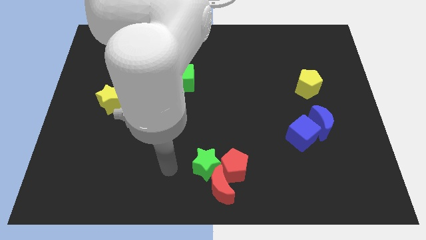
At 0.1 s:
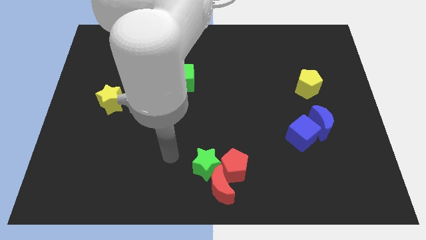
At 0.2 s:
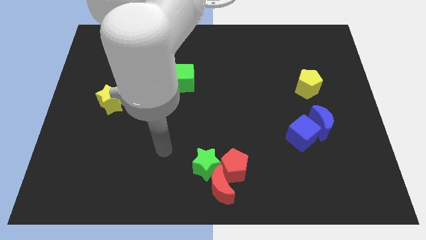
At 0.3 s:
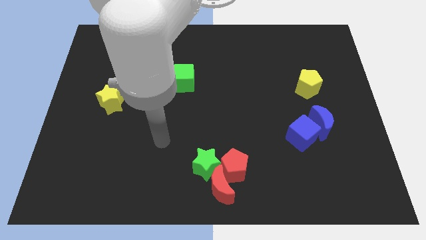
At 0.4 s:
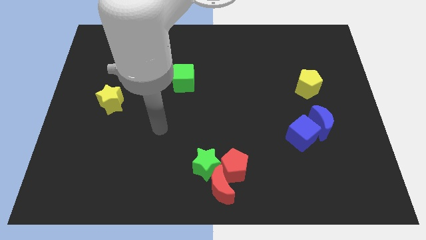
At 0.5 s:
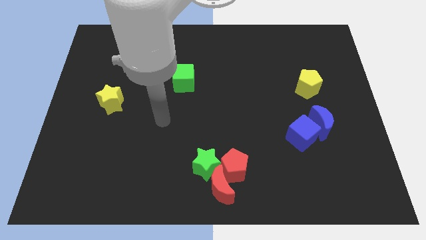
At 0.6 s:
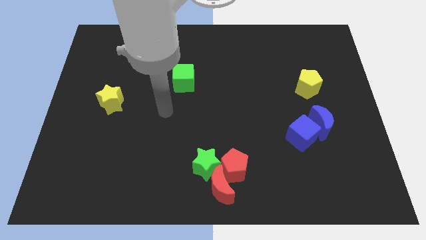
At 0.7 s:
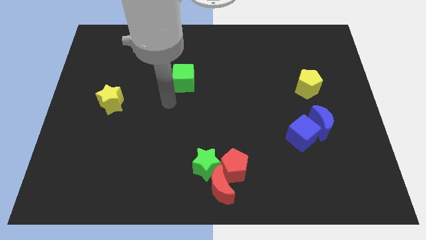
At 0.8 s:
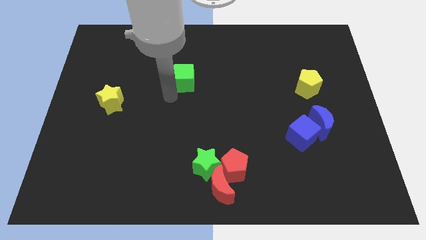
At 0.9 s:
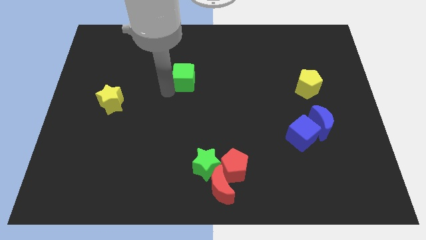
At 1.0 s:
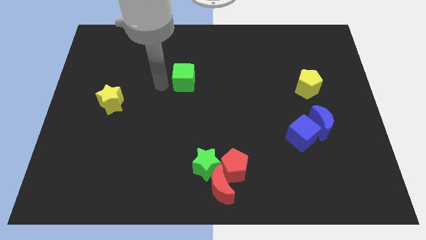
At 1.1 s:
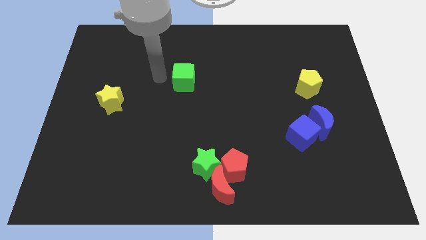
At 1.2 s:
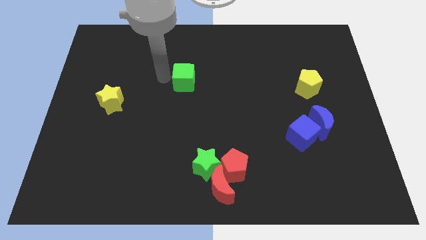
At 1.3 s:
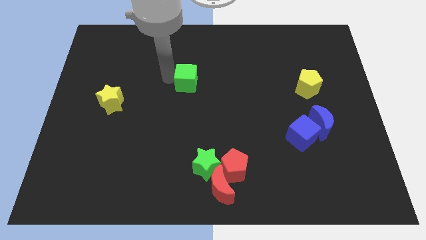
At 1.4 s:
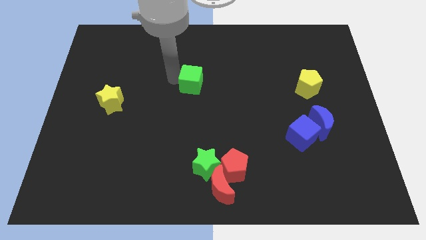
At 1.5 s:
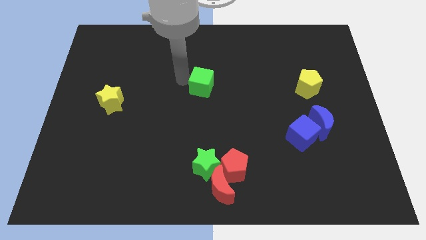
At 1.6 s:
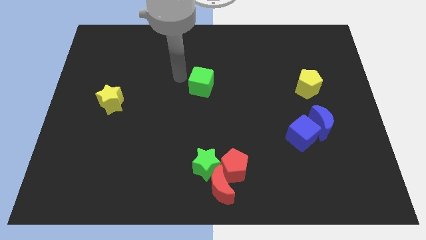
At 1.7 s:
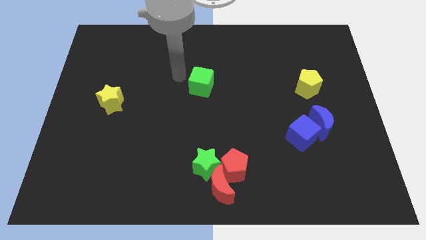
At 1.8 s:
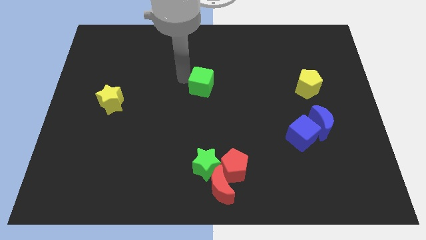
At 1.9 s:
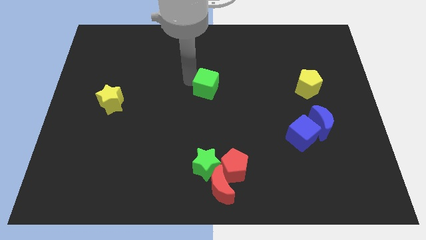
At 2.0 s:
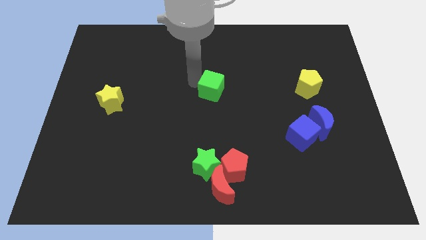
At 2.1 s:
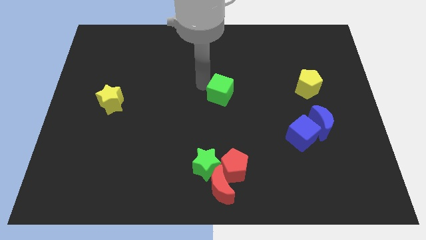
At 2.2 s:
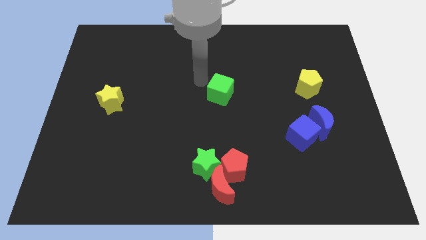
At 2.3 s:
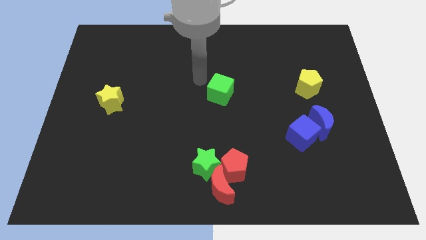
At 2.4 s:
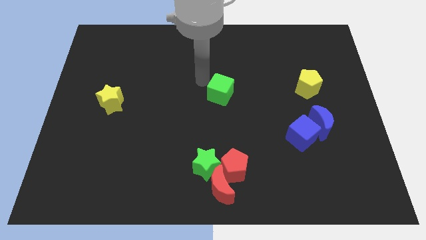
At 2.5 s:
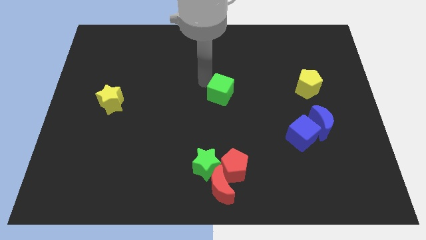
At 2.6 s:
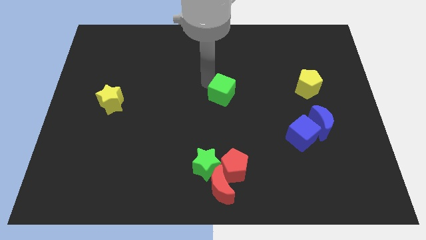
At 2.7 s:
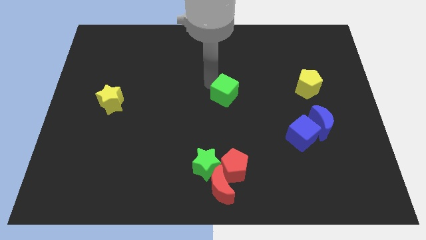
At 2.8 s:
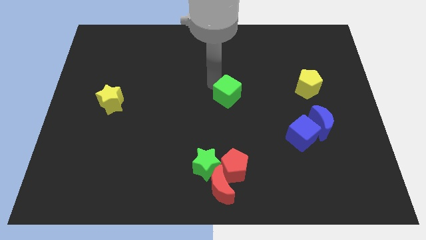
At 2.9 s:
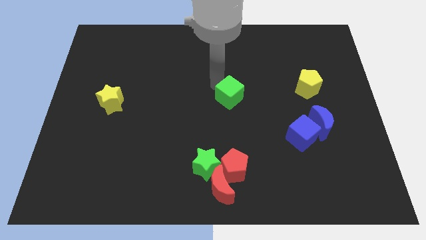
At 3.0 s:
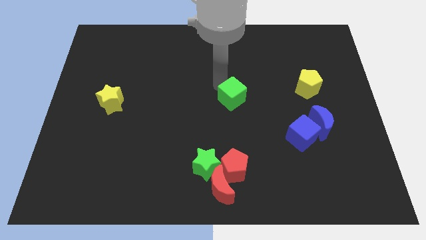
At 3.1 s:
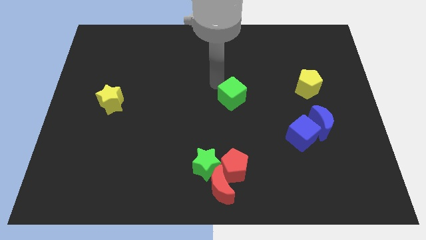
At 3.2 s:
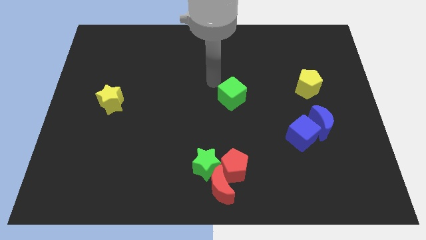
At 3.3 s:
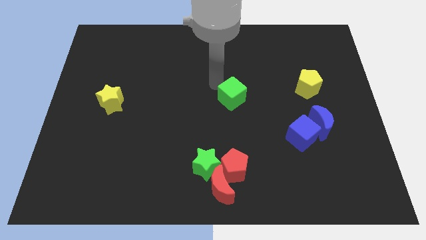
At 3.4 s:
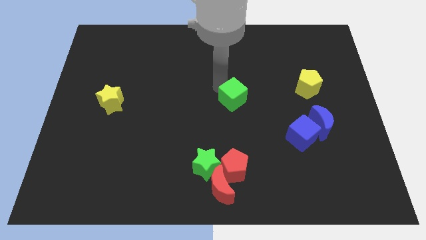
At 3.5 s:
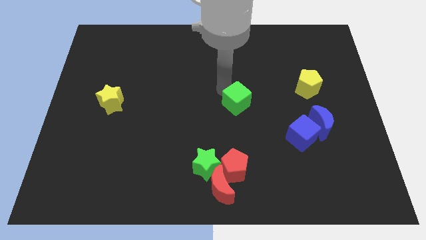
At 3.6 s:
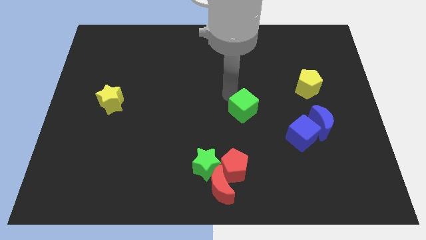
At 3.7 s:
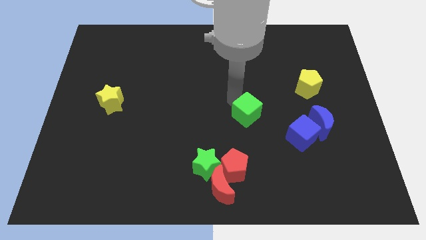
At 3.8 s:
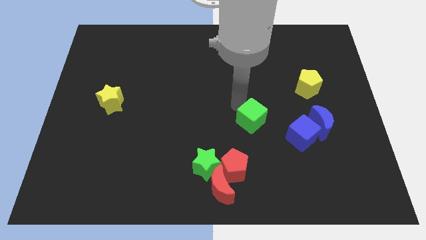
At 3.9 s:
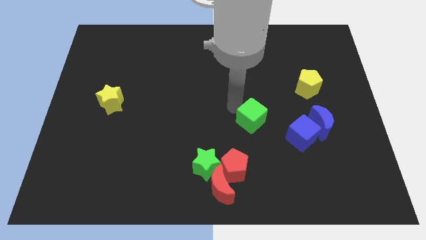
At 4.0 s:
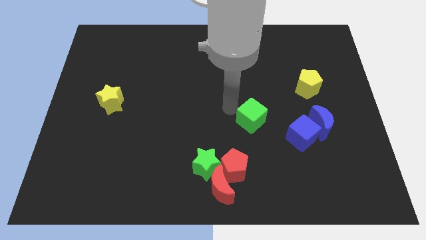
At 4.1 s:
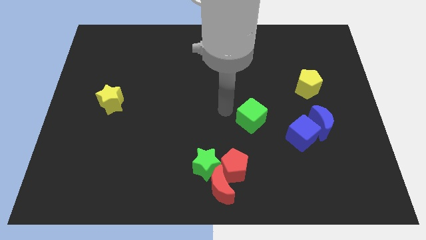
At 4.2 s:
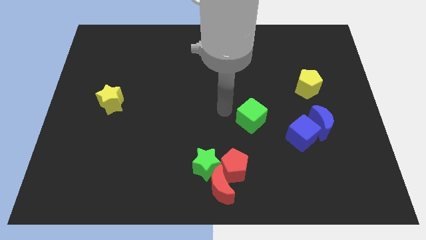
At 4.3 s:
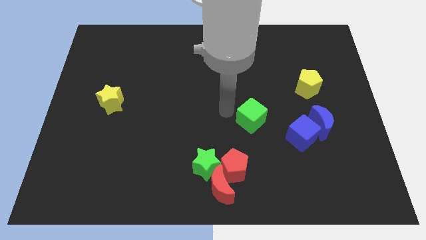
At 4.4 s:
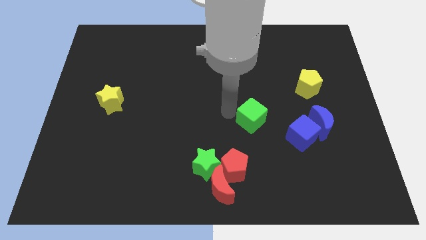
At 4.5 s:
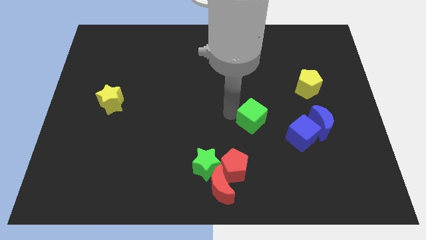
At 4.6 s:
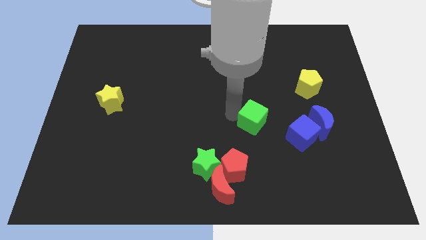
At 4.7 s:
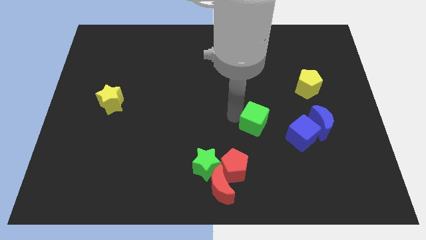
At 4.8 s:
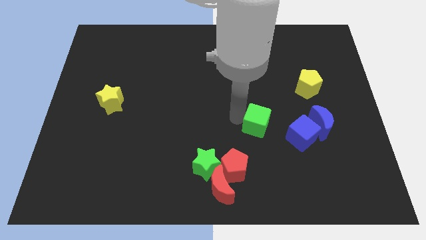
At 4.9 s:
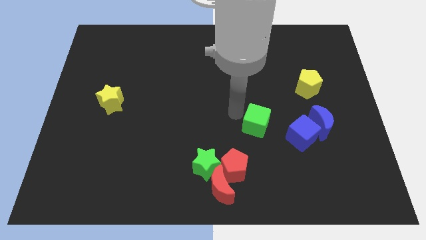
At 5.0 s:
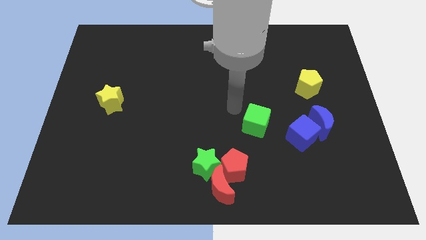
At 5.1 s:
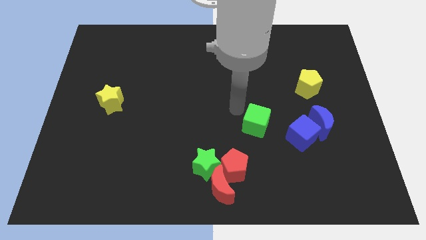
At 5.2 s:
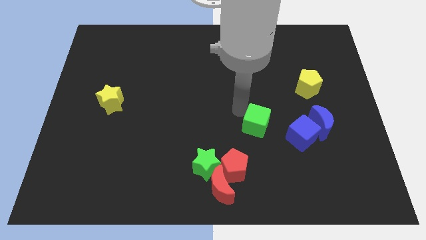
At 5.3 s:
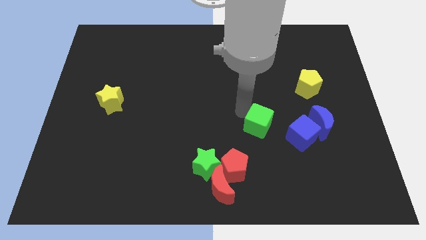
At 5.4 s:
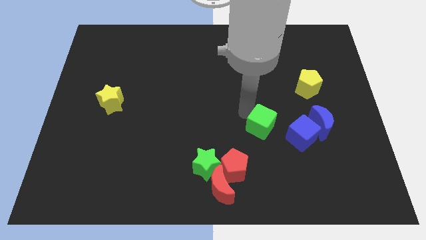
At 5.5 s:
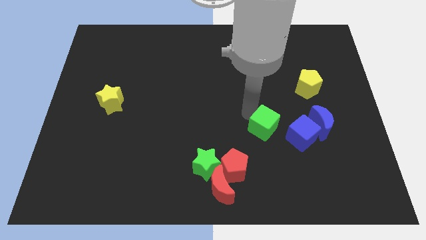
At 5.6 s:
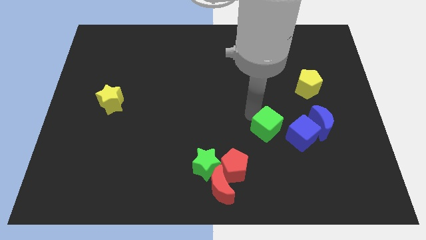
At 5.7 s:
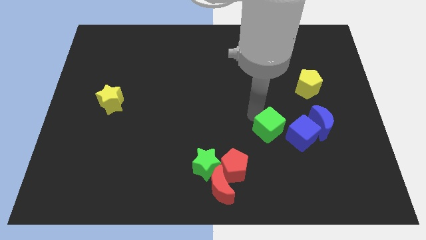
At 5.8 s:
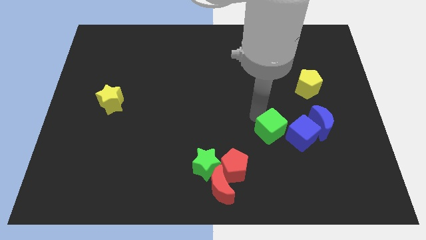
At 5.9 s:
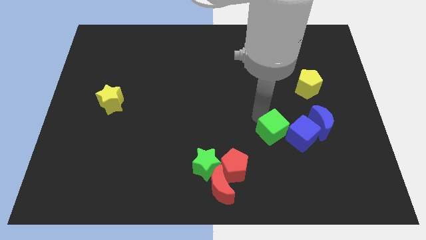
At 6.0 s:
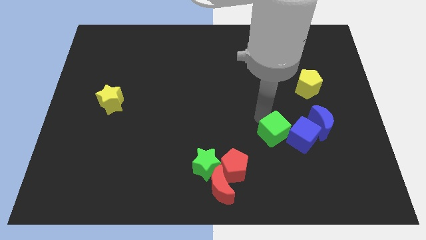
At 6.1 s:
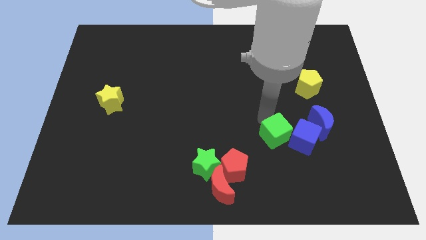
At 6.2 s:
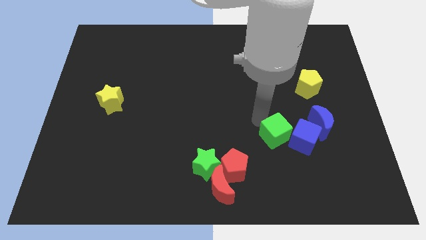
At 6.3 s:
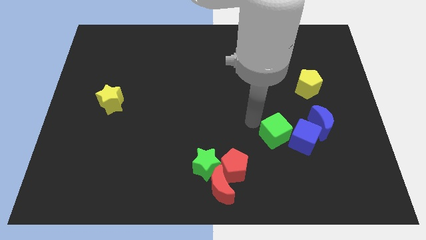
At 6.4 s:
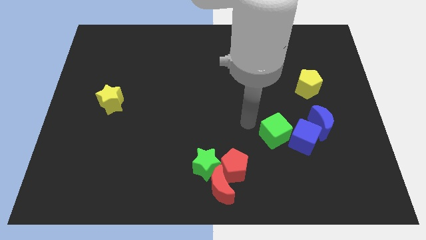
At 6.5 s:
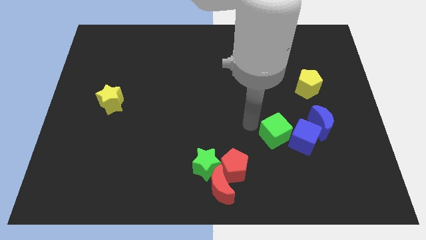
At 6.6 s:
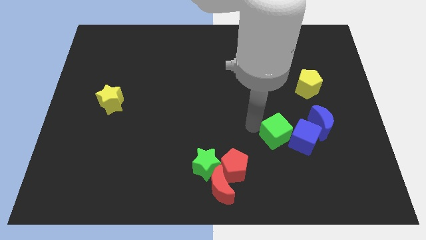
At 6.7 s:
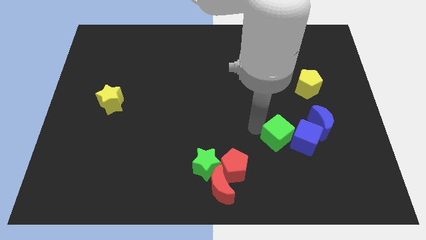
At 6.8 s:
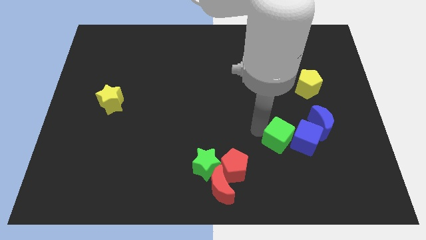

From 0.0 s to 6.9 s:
push the green cube to the bottom left side of the blue moon
